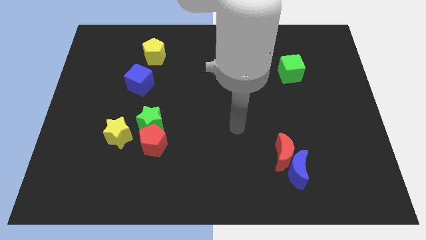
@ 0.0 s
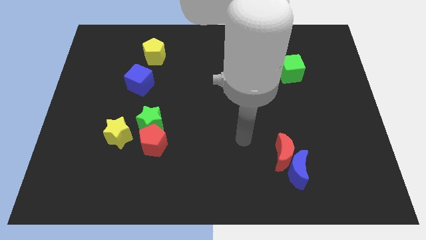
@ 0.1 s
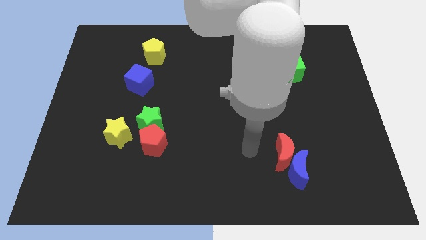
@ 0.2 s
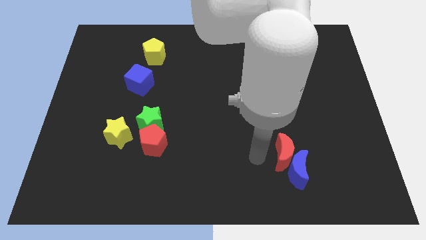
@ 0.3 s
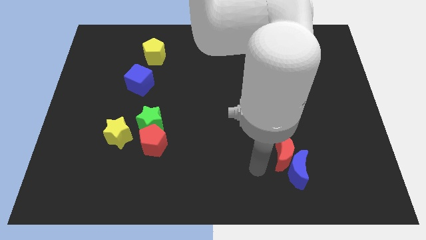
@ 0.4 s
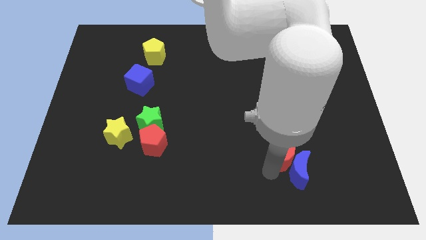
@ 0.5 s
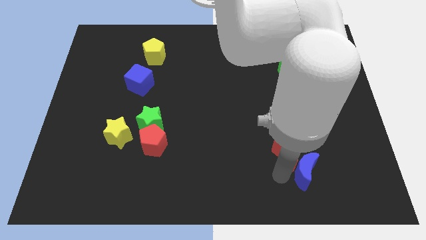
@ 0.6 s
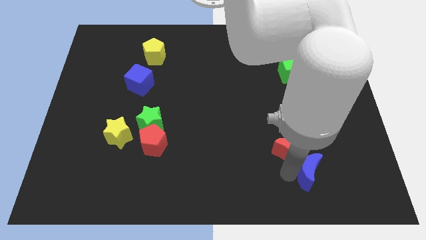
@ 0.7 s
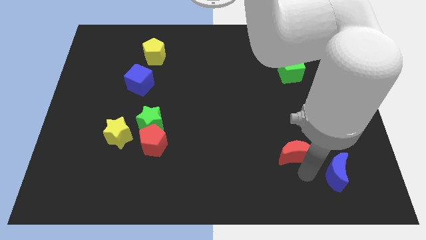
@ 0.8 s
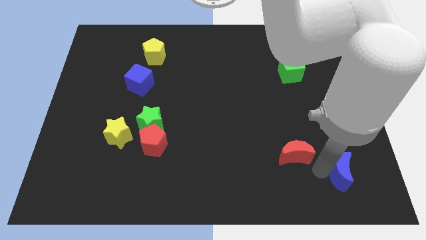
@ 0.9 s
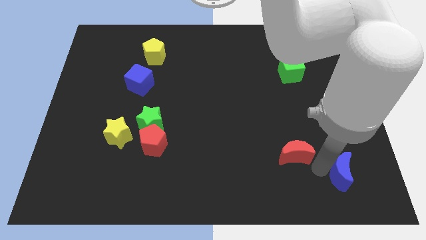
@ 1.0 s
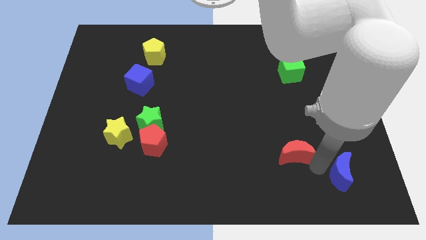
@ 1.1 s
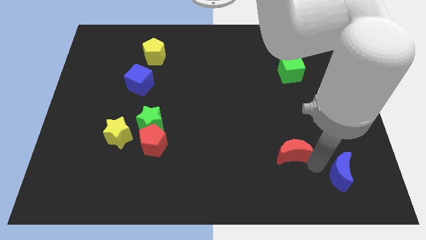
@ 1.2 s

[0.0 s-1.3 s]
move the red moon away from the blue moon

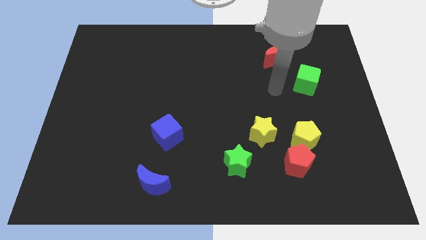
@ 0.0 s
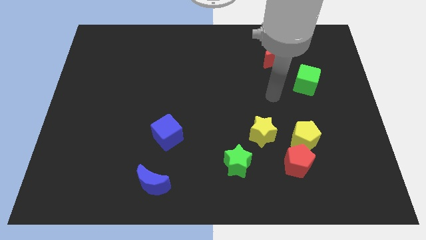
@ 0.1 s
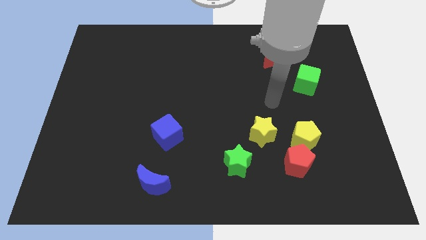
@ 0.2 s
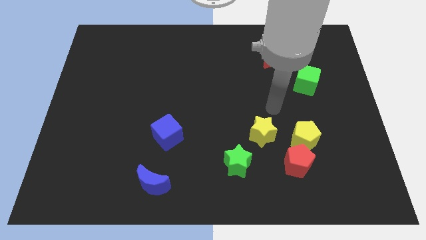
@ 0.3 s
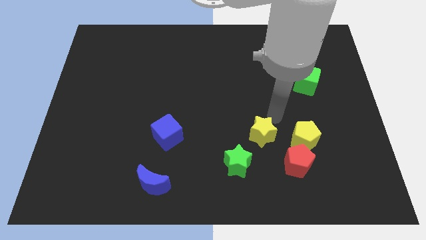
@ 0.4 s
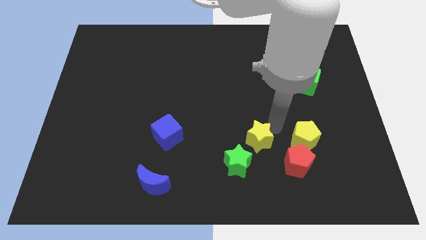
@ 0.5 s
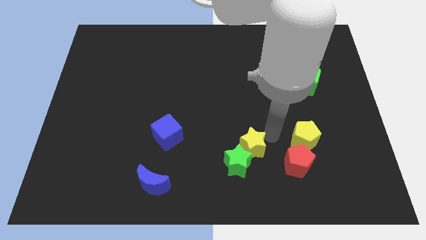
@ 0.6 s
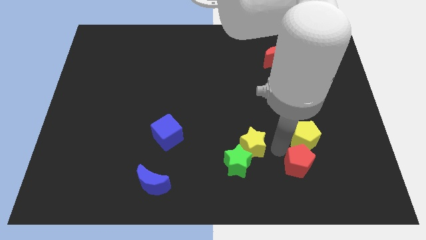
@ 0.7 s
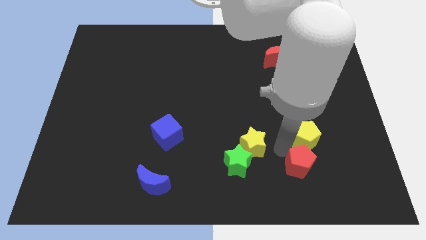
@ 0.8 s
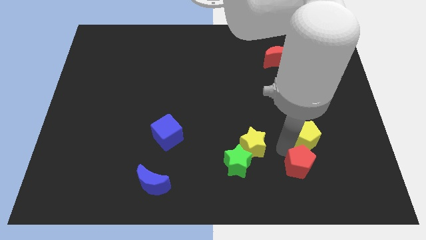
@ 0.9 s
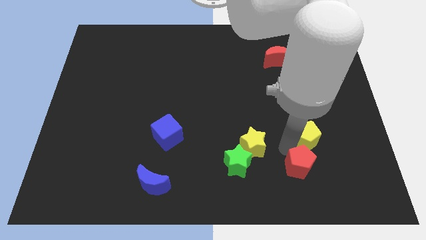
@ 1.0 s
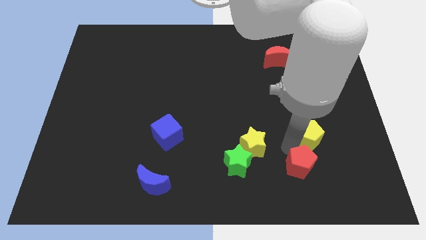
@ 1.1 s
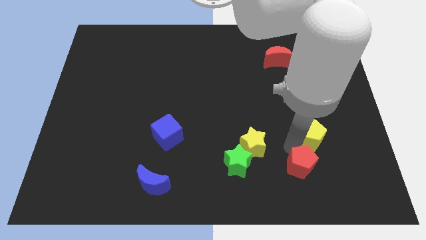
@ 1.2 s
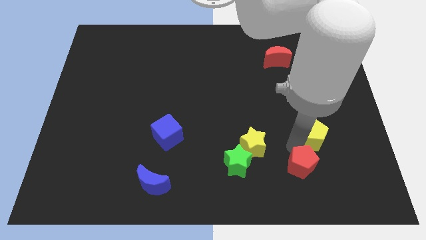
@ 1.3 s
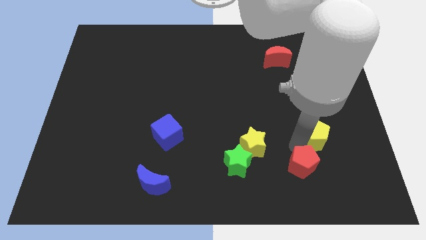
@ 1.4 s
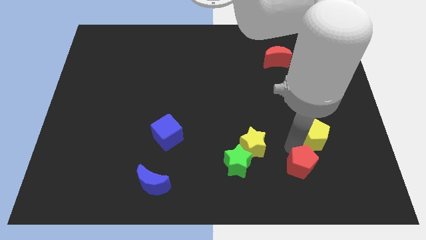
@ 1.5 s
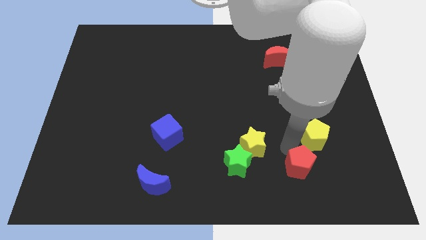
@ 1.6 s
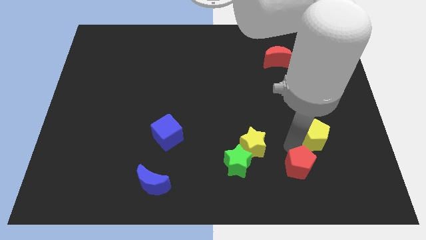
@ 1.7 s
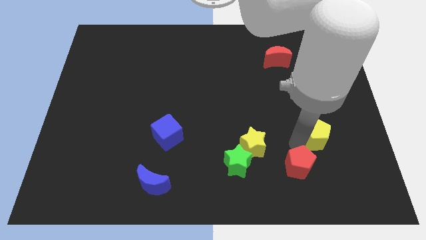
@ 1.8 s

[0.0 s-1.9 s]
separate the yellow pentagon from the red pentagon and yellow star

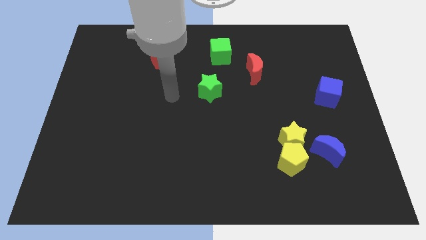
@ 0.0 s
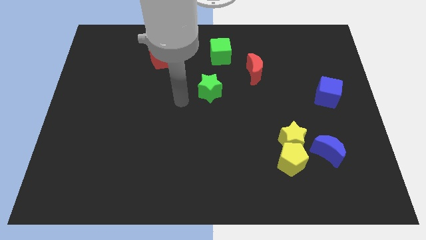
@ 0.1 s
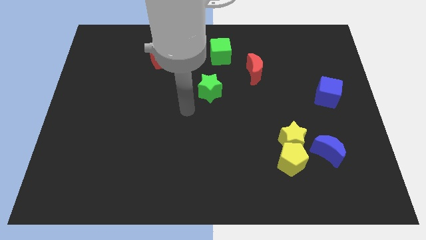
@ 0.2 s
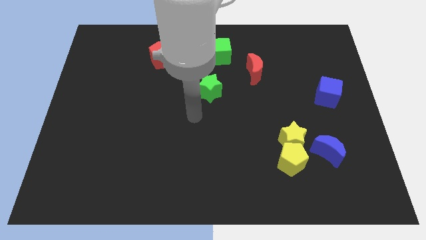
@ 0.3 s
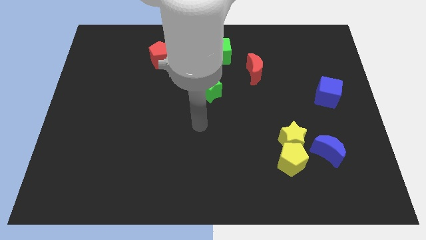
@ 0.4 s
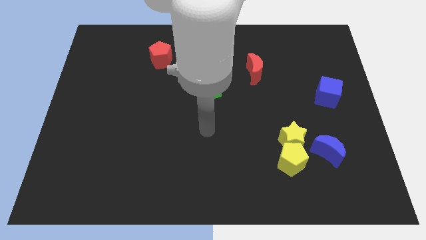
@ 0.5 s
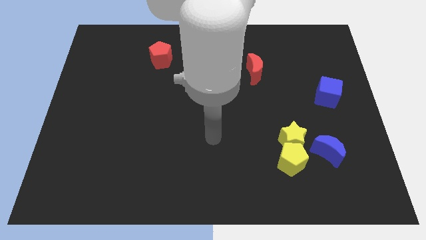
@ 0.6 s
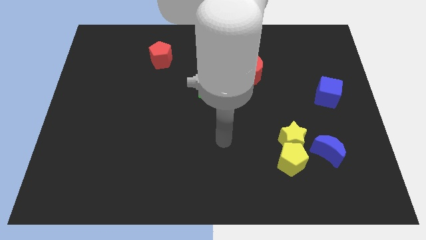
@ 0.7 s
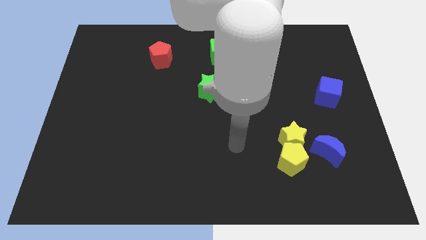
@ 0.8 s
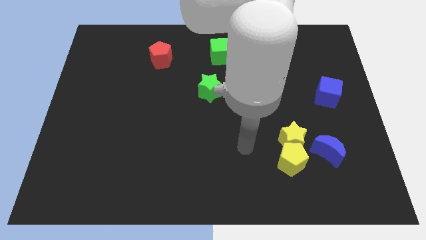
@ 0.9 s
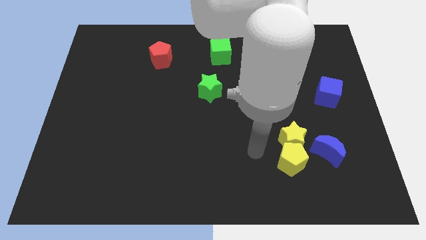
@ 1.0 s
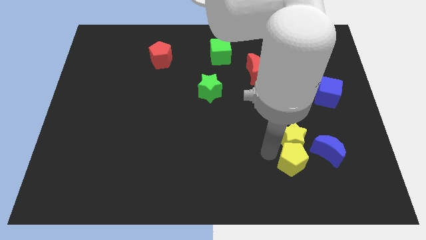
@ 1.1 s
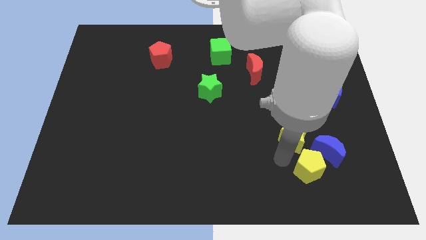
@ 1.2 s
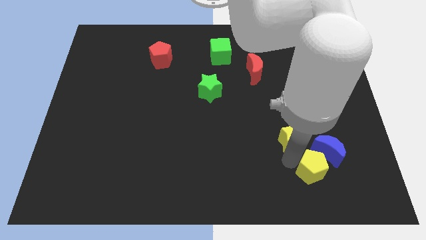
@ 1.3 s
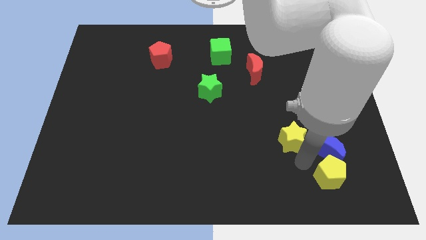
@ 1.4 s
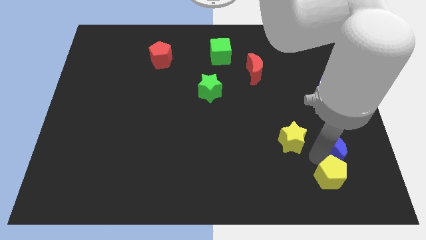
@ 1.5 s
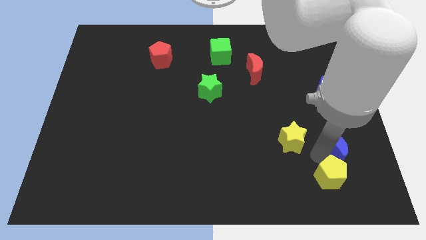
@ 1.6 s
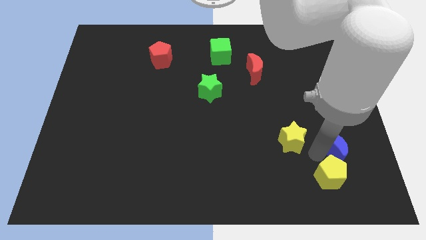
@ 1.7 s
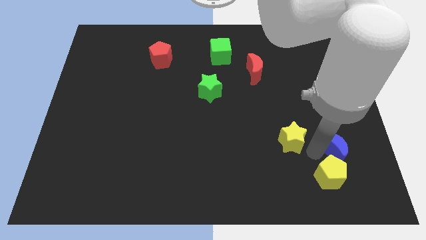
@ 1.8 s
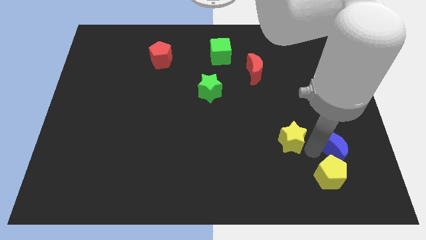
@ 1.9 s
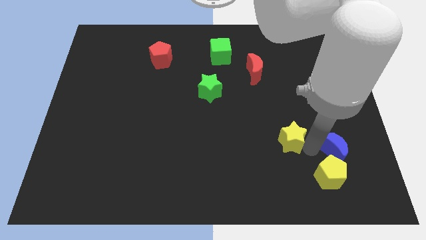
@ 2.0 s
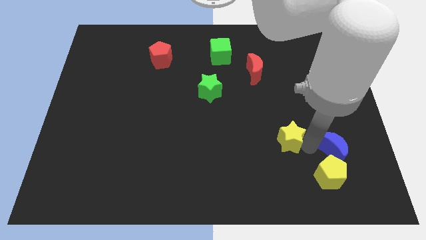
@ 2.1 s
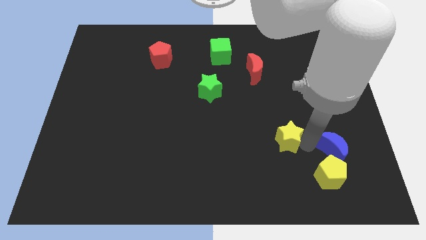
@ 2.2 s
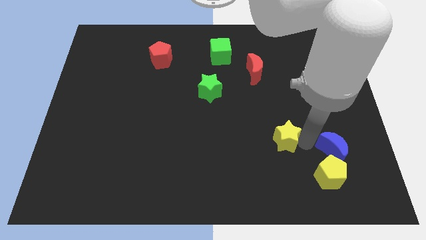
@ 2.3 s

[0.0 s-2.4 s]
move the yellow star away from the yellow pentagon and blue moon

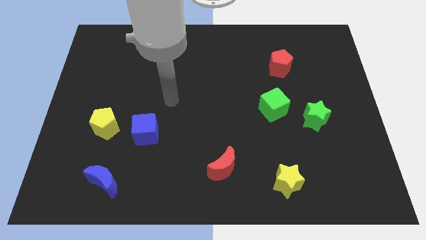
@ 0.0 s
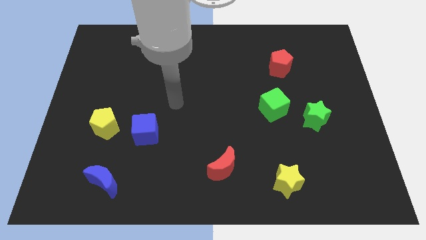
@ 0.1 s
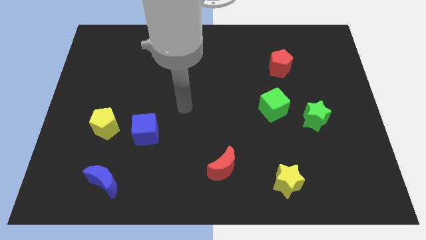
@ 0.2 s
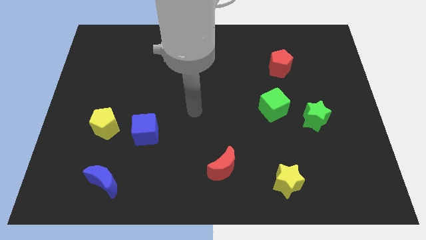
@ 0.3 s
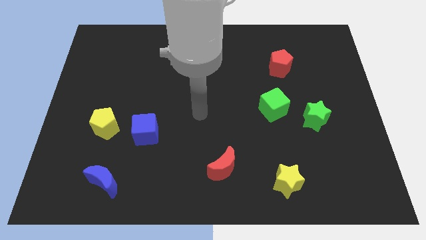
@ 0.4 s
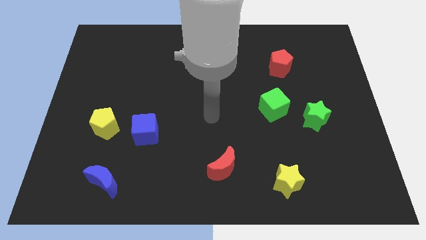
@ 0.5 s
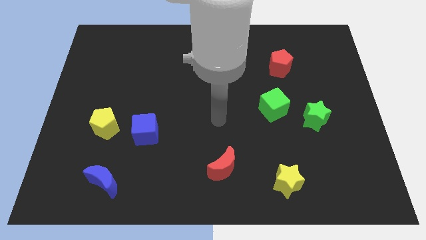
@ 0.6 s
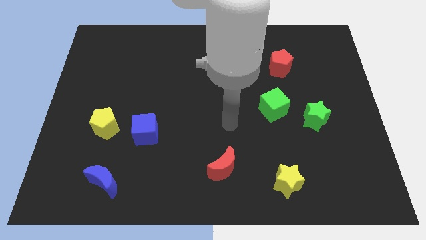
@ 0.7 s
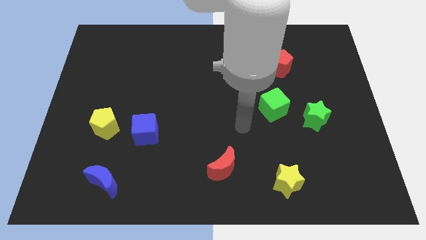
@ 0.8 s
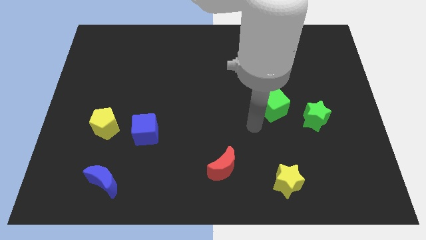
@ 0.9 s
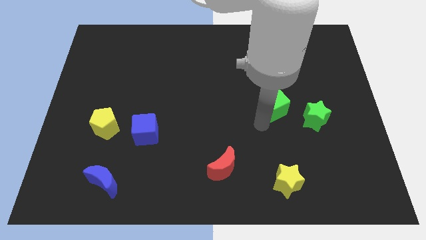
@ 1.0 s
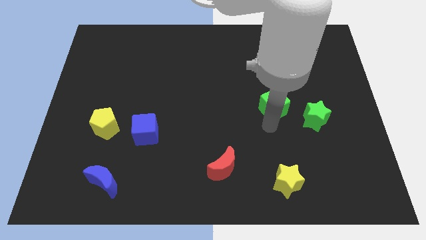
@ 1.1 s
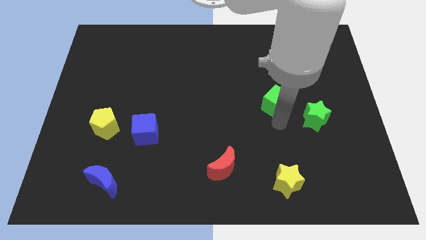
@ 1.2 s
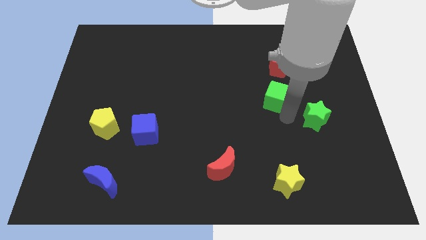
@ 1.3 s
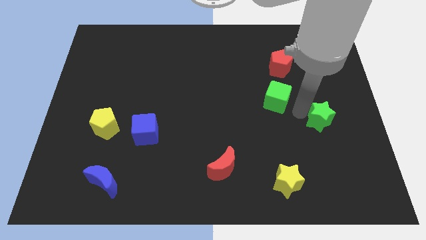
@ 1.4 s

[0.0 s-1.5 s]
separate the green cube from the green star

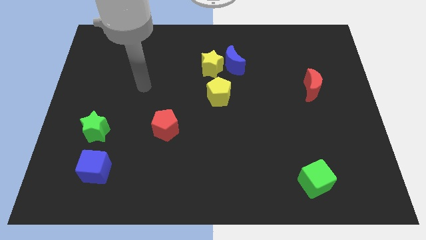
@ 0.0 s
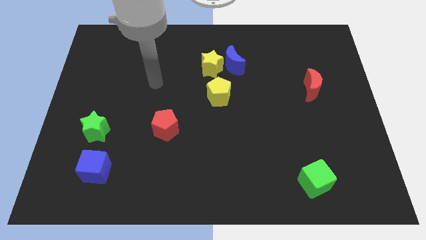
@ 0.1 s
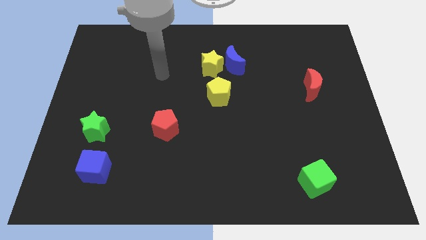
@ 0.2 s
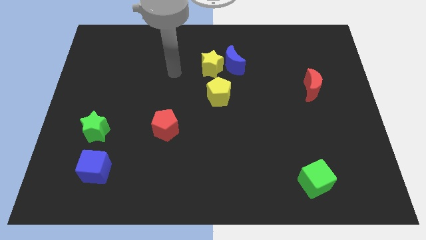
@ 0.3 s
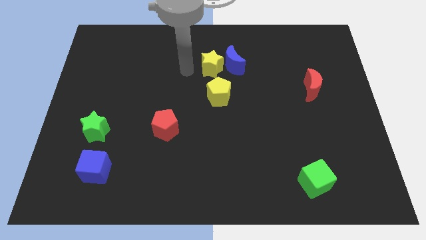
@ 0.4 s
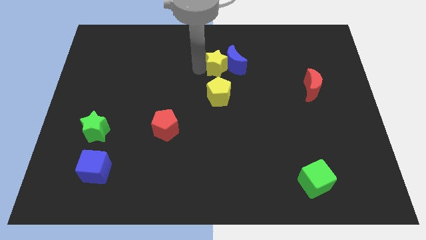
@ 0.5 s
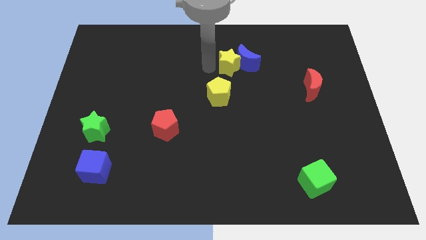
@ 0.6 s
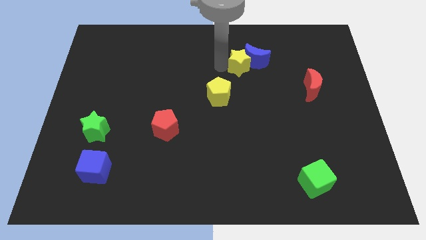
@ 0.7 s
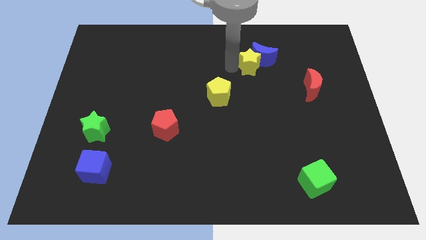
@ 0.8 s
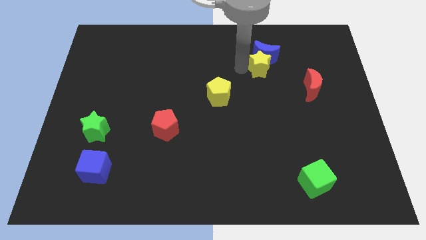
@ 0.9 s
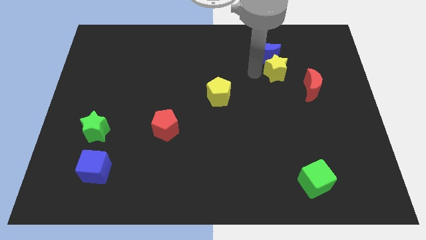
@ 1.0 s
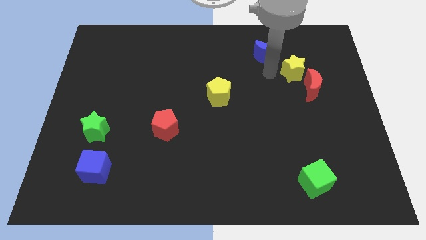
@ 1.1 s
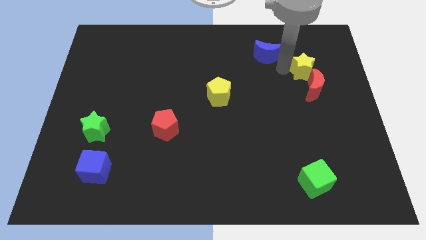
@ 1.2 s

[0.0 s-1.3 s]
pull the blue moon apart from the yellow star

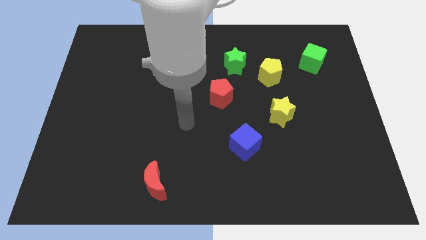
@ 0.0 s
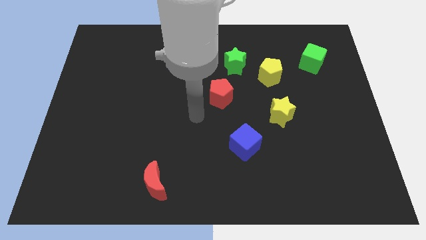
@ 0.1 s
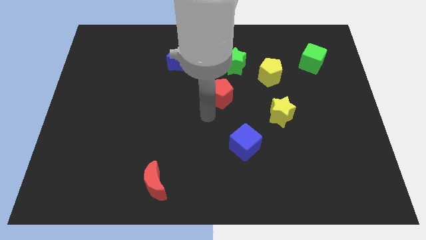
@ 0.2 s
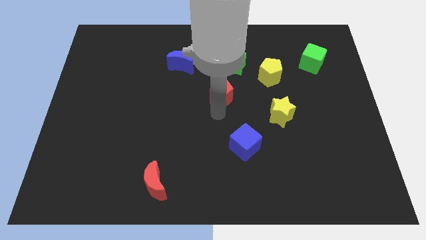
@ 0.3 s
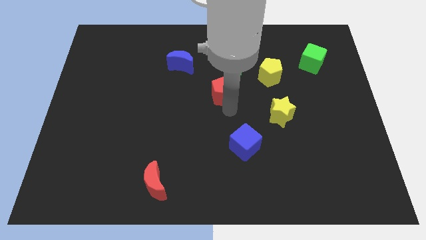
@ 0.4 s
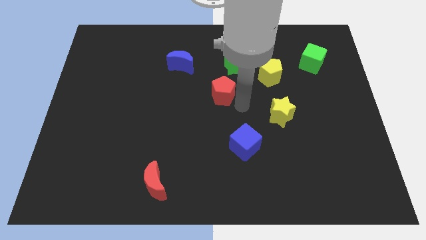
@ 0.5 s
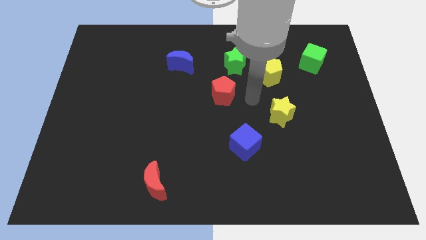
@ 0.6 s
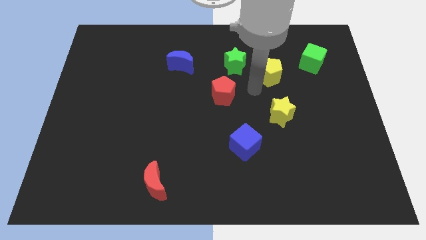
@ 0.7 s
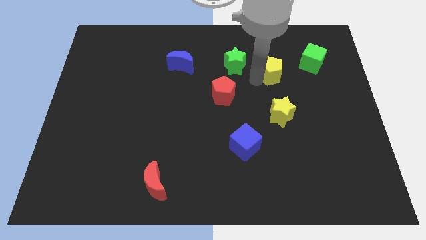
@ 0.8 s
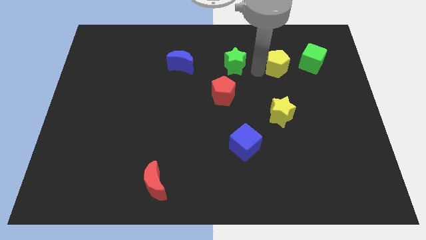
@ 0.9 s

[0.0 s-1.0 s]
move the green star away from the yellow pentagon
